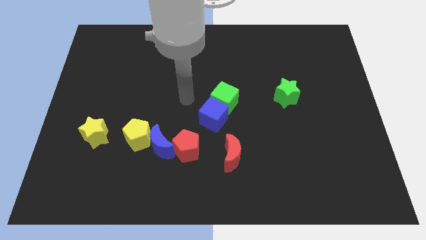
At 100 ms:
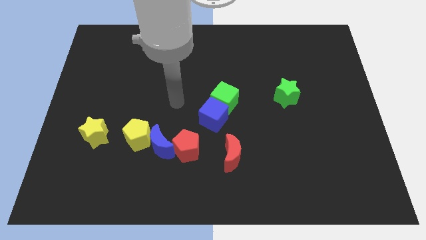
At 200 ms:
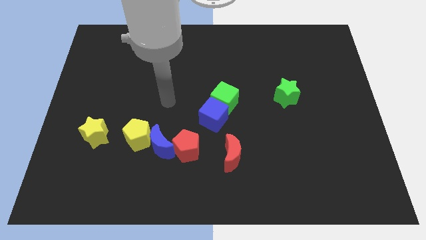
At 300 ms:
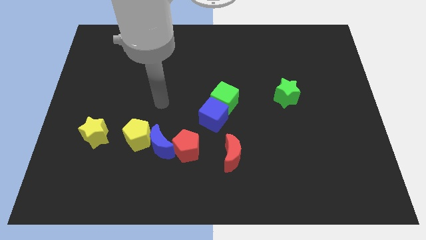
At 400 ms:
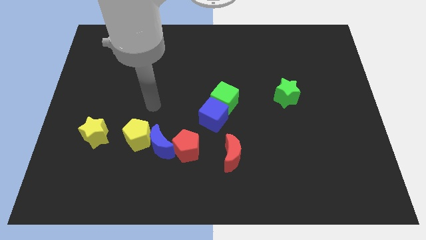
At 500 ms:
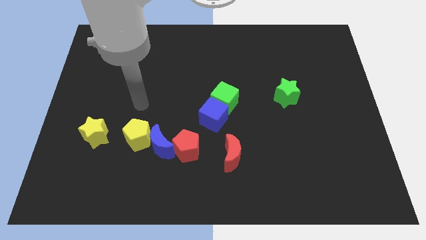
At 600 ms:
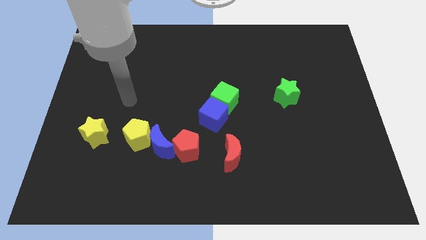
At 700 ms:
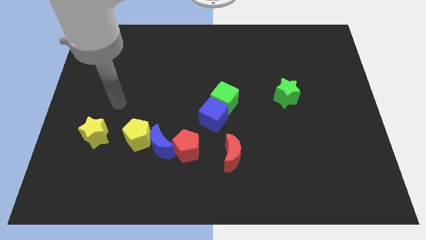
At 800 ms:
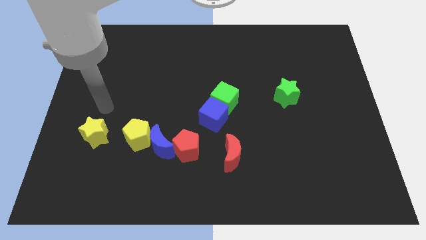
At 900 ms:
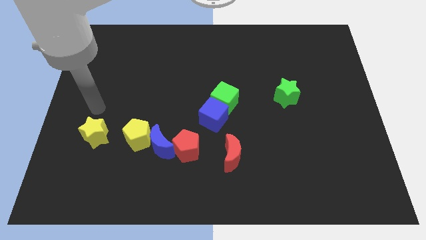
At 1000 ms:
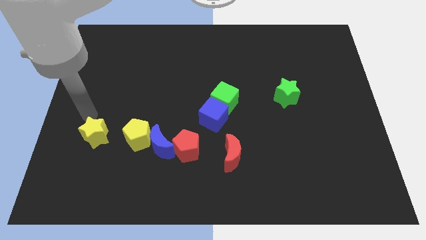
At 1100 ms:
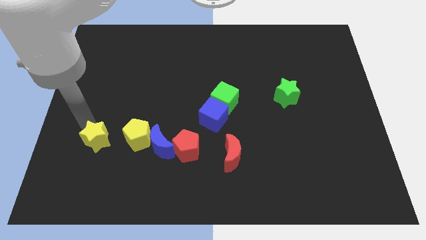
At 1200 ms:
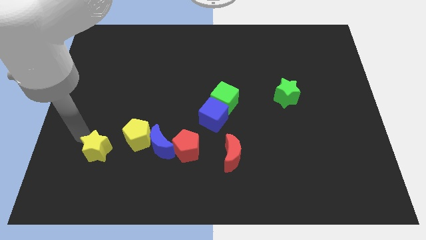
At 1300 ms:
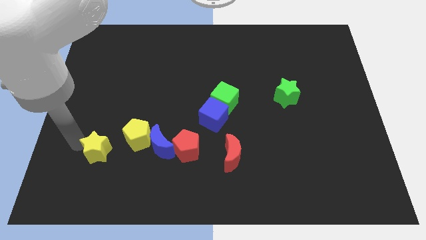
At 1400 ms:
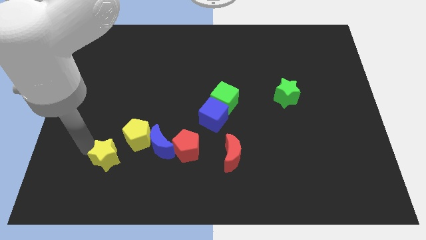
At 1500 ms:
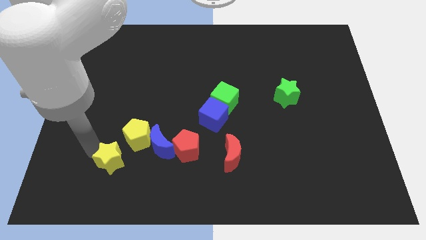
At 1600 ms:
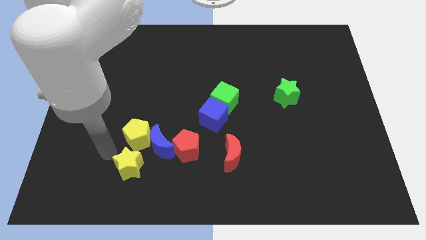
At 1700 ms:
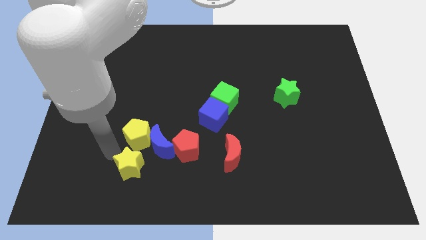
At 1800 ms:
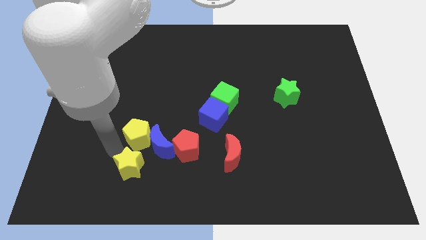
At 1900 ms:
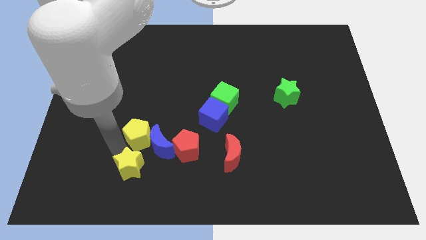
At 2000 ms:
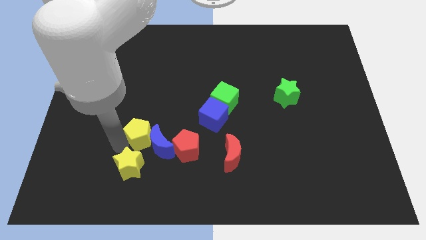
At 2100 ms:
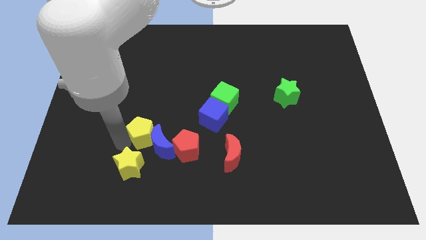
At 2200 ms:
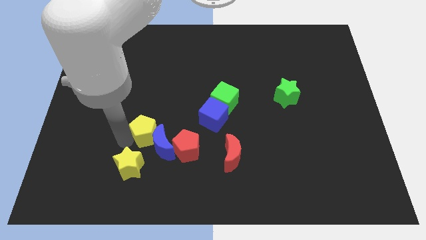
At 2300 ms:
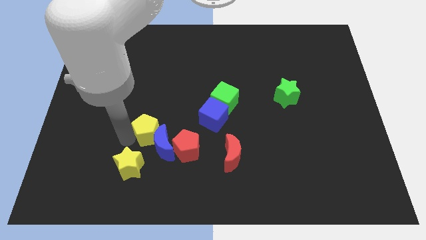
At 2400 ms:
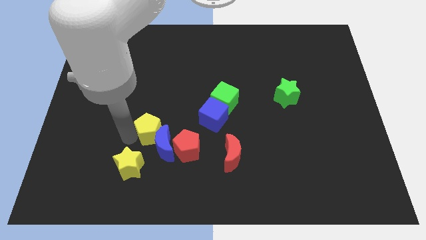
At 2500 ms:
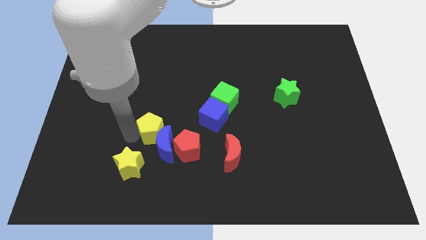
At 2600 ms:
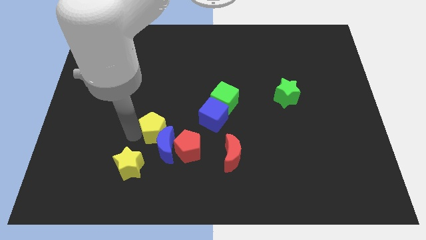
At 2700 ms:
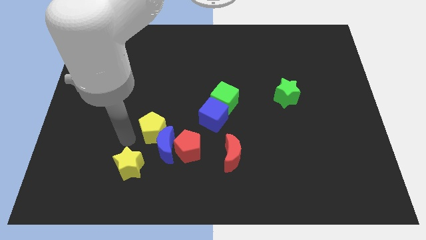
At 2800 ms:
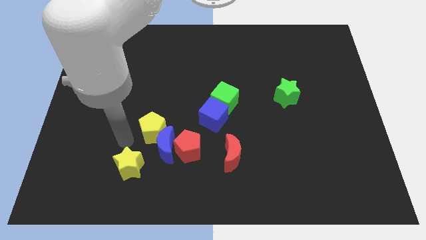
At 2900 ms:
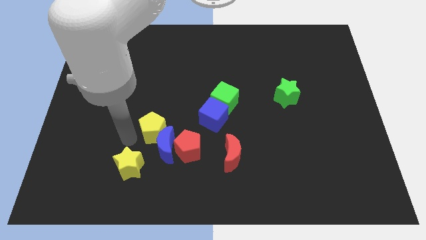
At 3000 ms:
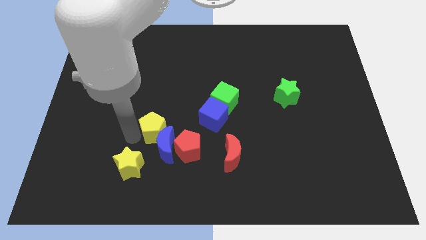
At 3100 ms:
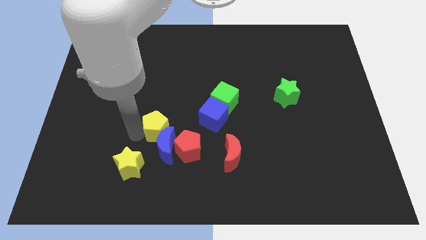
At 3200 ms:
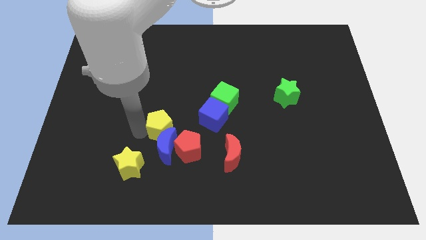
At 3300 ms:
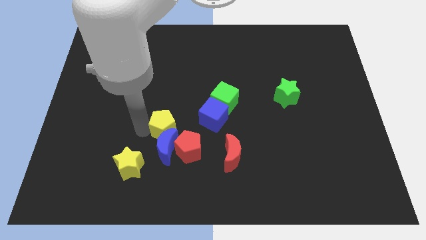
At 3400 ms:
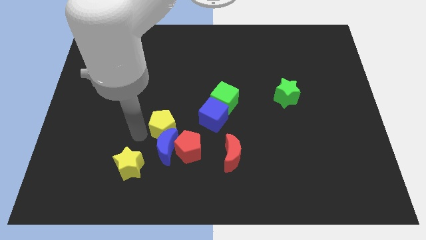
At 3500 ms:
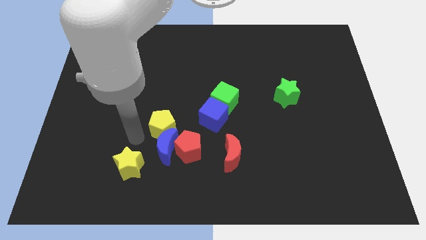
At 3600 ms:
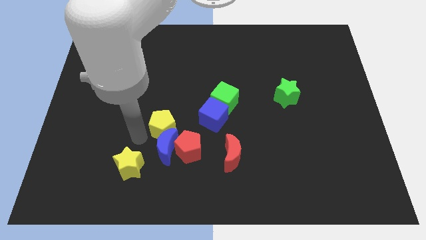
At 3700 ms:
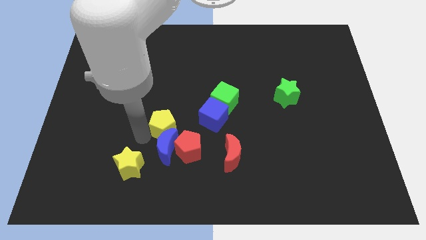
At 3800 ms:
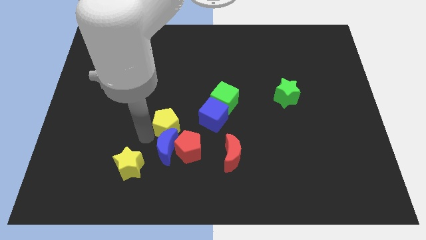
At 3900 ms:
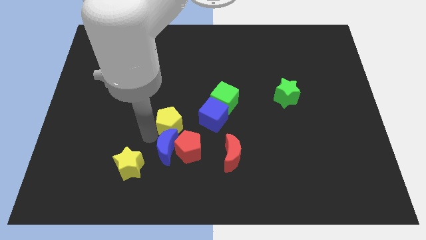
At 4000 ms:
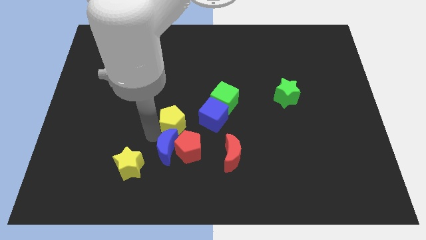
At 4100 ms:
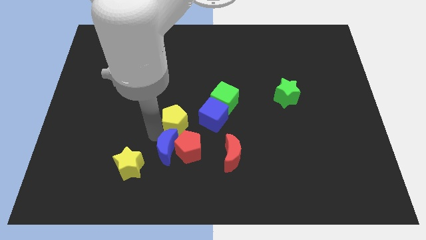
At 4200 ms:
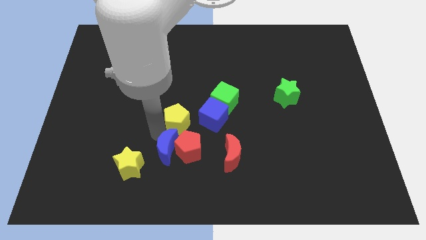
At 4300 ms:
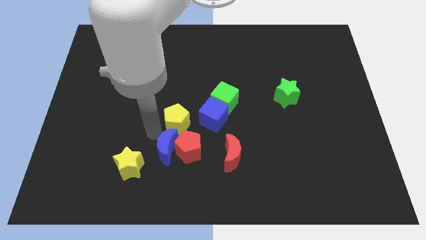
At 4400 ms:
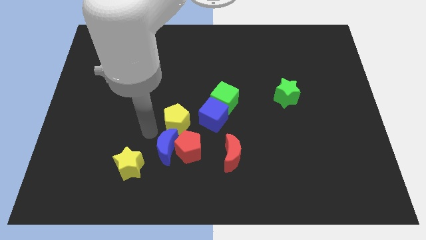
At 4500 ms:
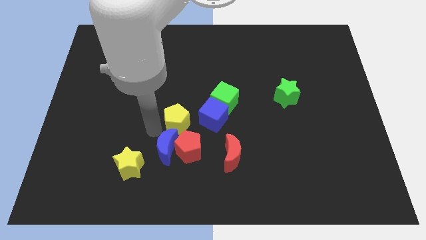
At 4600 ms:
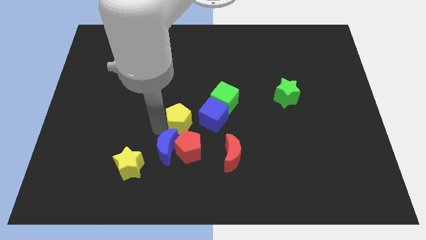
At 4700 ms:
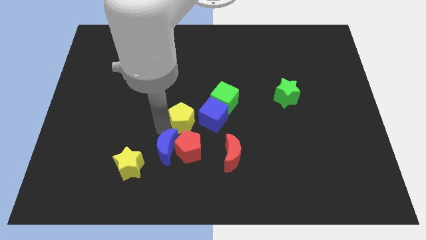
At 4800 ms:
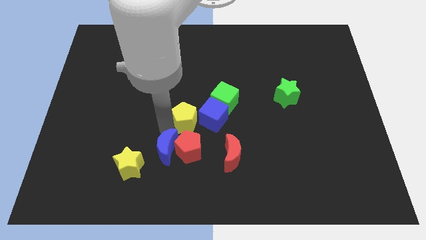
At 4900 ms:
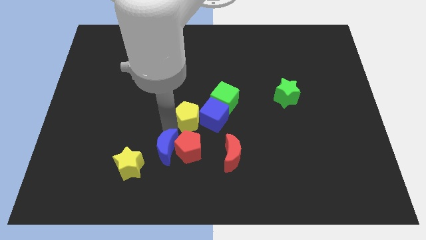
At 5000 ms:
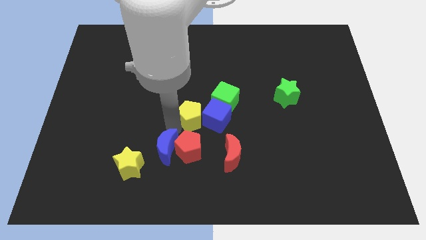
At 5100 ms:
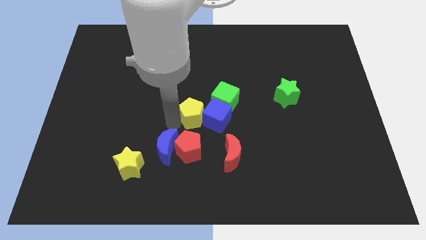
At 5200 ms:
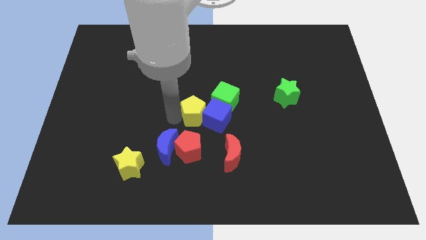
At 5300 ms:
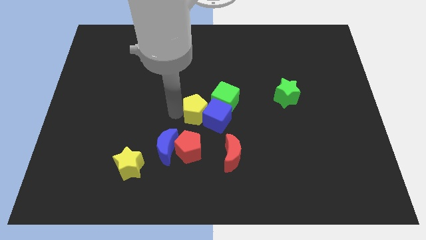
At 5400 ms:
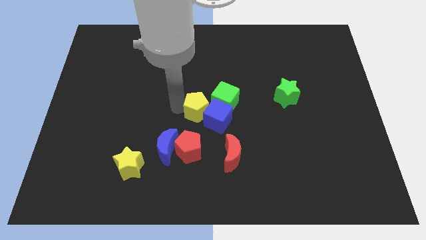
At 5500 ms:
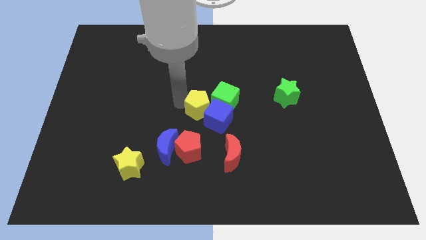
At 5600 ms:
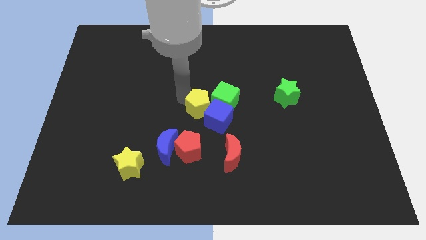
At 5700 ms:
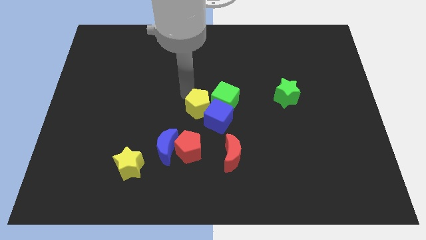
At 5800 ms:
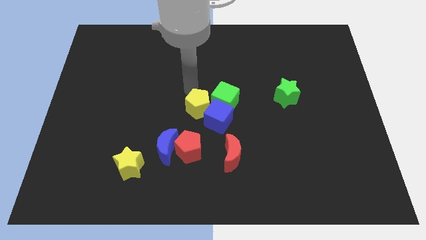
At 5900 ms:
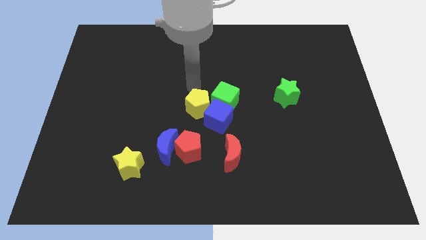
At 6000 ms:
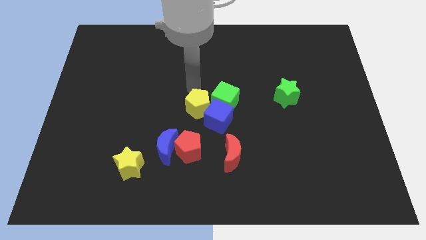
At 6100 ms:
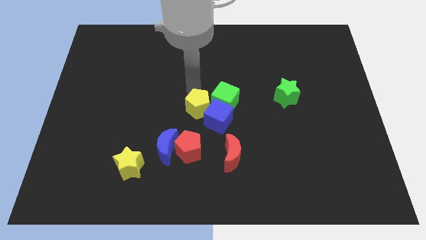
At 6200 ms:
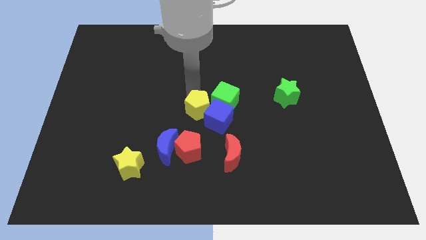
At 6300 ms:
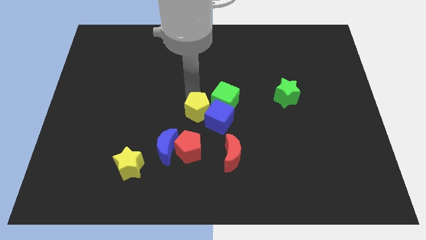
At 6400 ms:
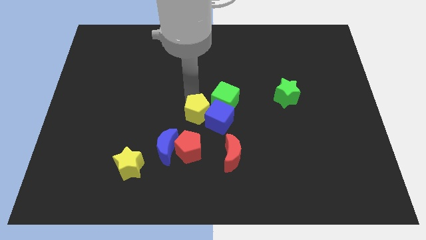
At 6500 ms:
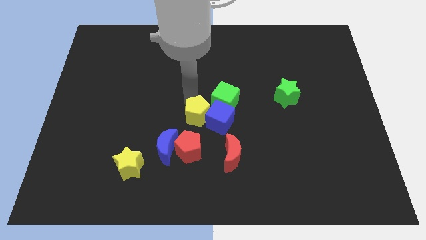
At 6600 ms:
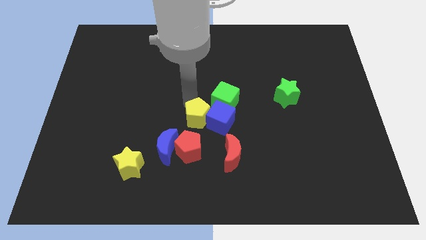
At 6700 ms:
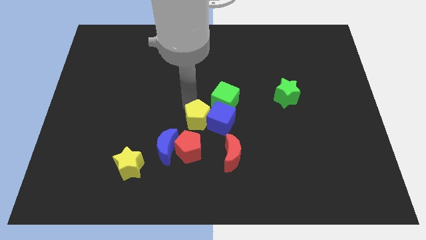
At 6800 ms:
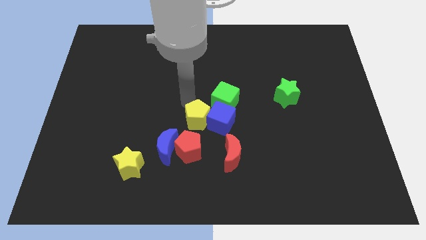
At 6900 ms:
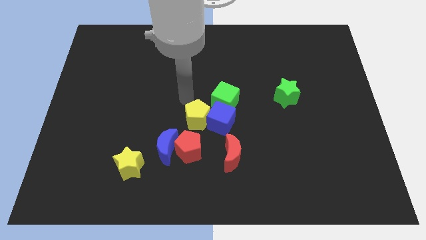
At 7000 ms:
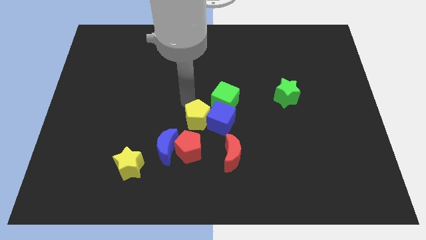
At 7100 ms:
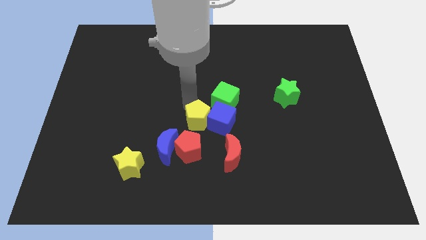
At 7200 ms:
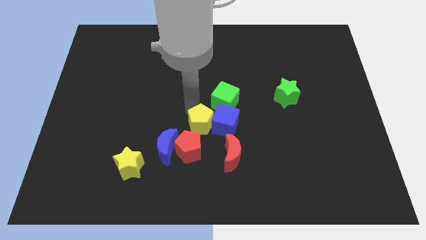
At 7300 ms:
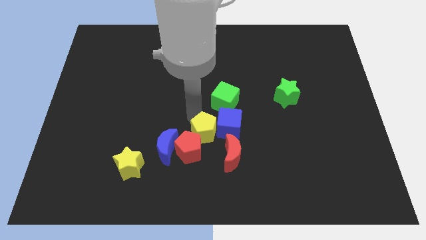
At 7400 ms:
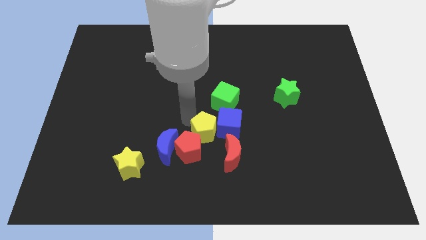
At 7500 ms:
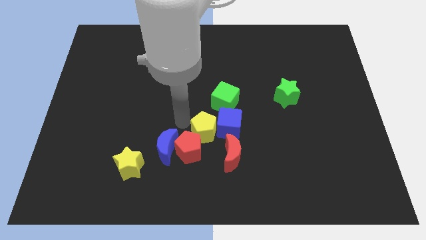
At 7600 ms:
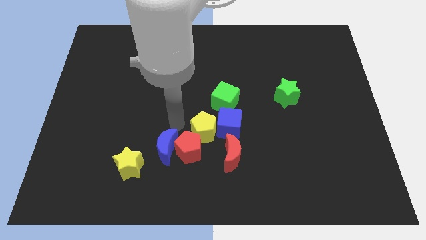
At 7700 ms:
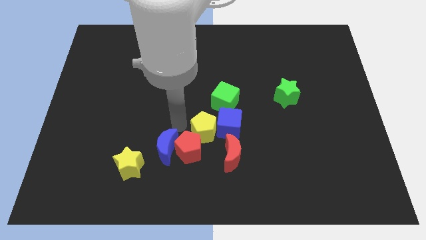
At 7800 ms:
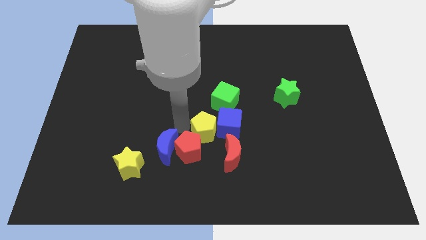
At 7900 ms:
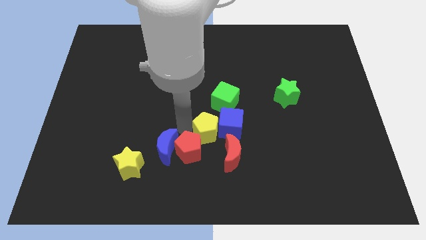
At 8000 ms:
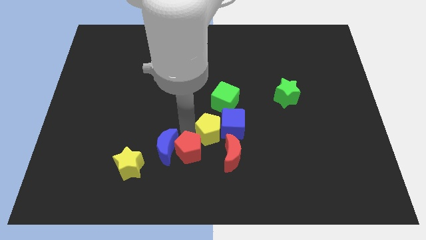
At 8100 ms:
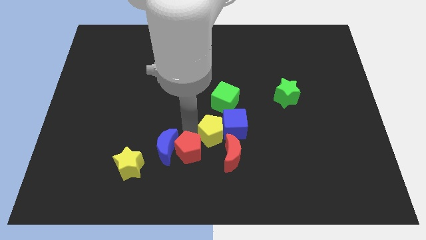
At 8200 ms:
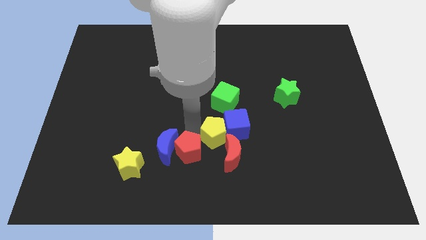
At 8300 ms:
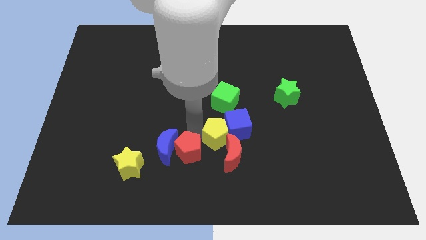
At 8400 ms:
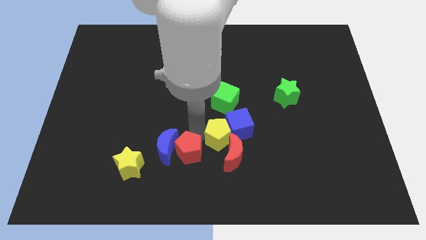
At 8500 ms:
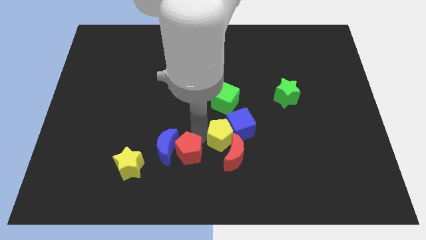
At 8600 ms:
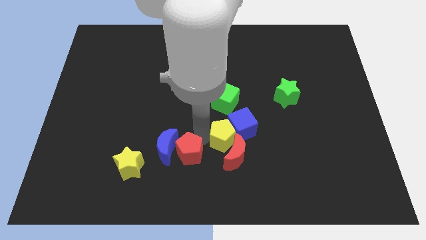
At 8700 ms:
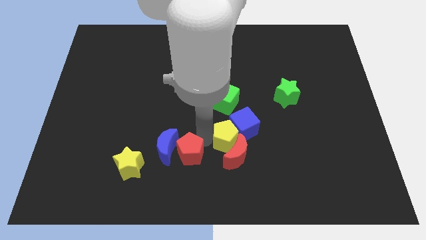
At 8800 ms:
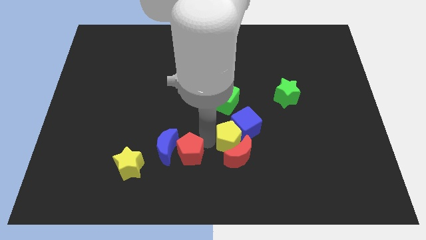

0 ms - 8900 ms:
push the yellow pentagon to the right
